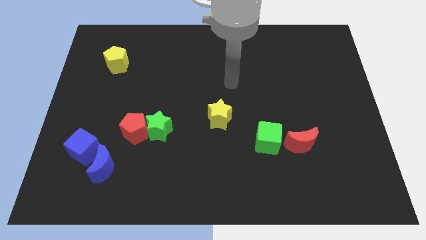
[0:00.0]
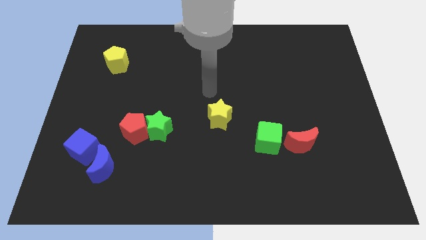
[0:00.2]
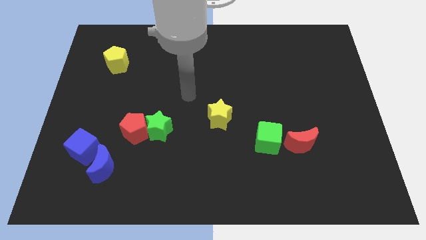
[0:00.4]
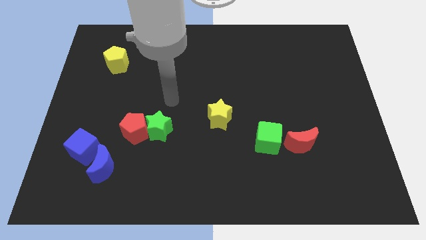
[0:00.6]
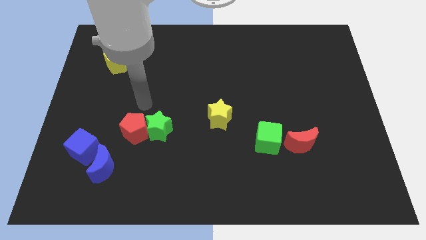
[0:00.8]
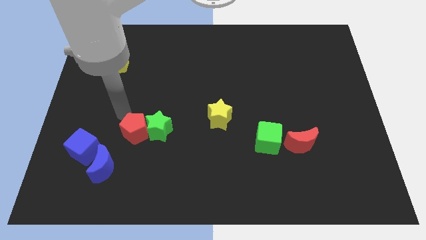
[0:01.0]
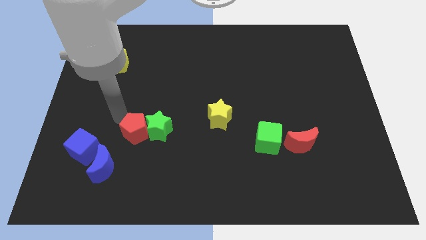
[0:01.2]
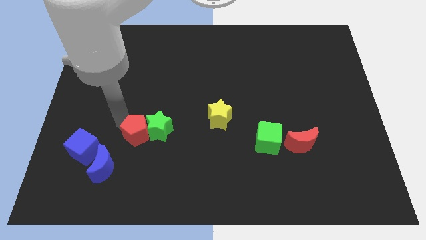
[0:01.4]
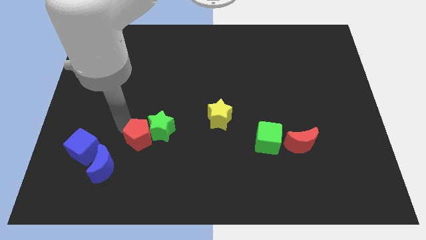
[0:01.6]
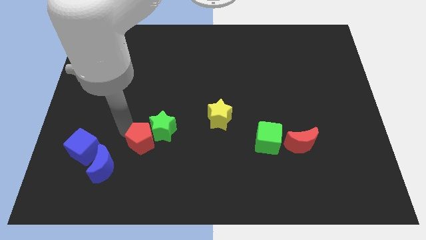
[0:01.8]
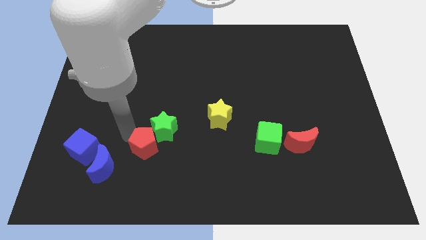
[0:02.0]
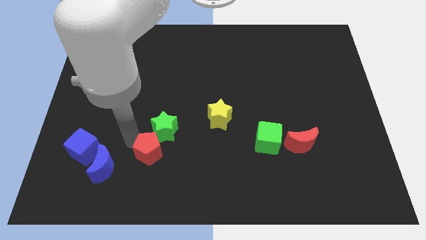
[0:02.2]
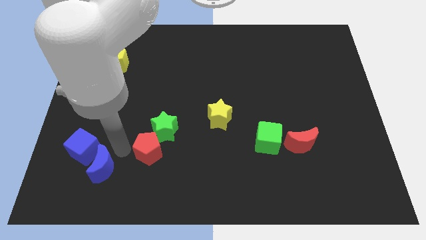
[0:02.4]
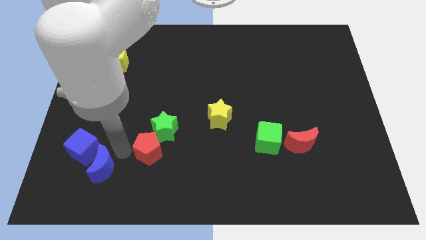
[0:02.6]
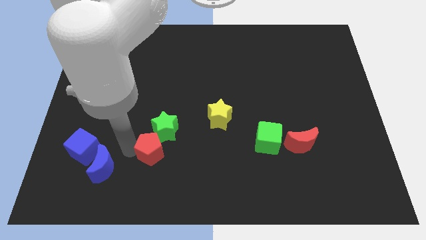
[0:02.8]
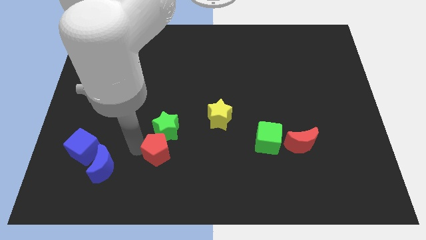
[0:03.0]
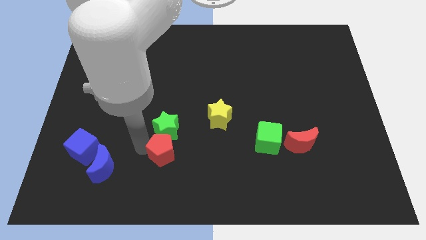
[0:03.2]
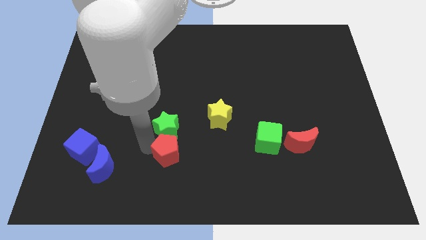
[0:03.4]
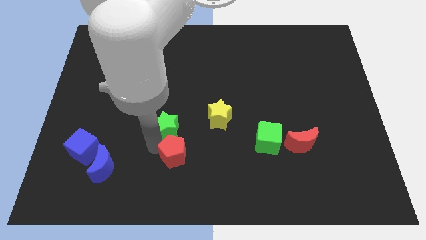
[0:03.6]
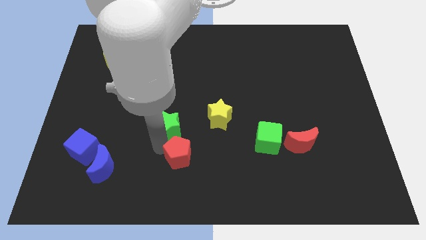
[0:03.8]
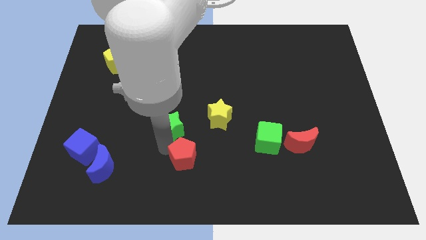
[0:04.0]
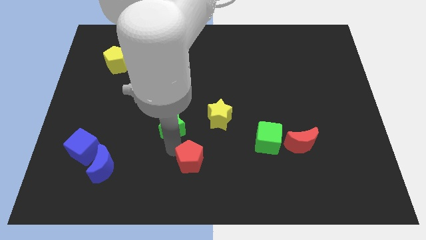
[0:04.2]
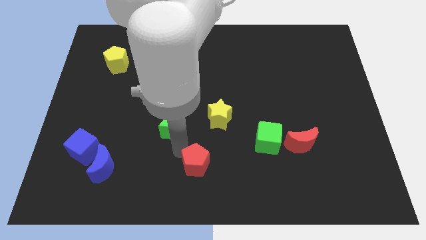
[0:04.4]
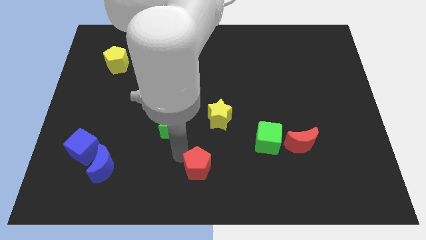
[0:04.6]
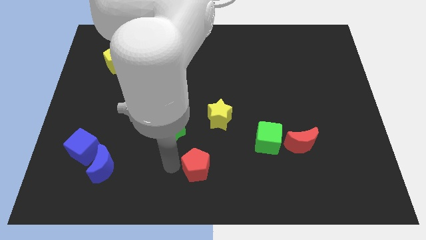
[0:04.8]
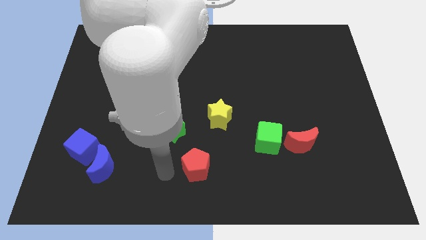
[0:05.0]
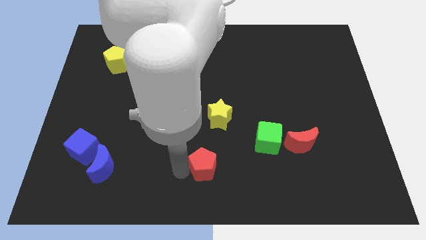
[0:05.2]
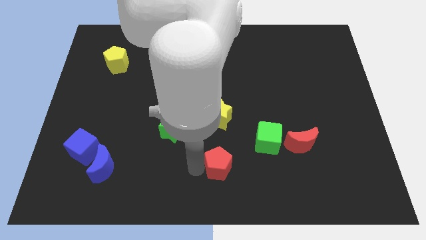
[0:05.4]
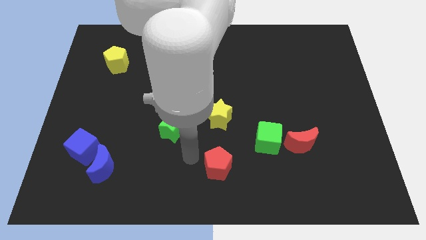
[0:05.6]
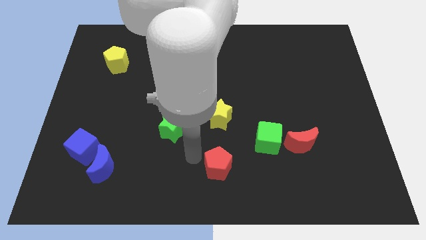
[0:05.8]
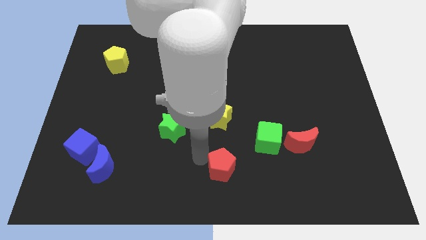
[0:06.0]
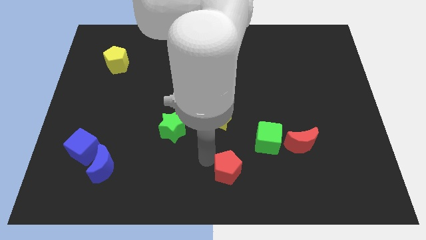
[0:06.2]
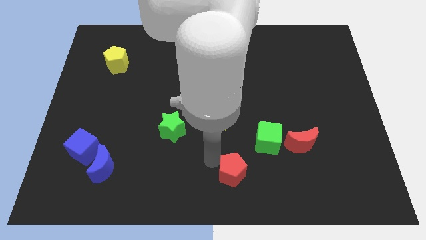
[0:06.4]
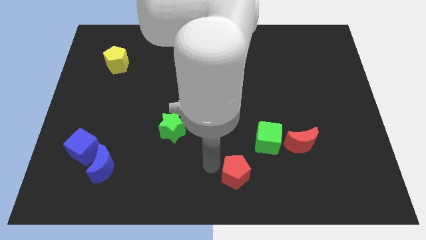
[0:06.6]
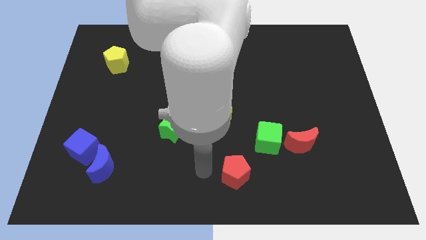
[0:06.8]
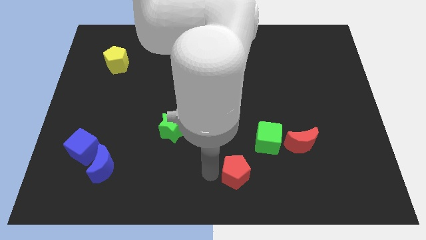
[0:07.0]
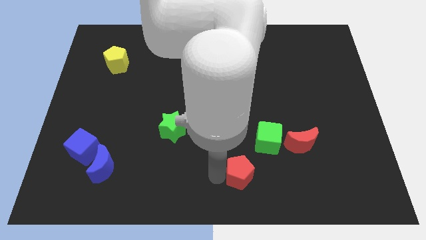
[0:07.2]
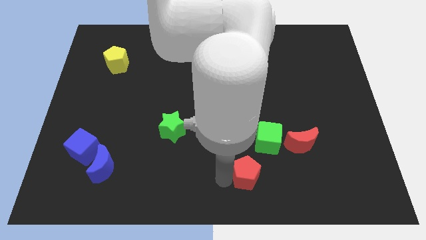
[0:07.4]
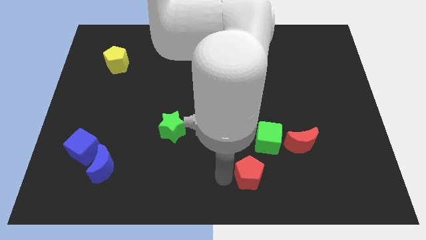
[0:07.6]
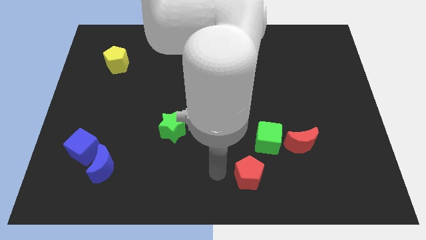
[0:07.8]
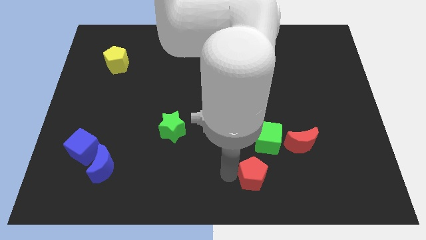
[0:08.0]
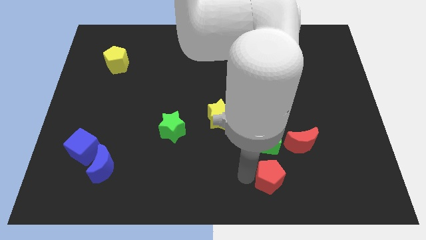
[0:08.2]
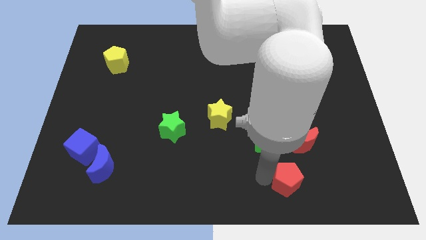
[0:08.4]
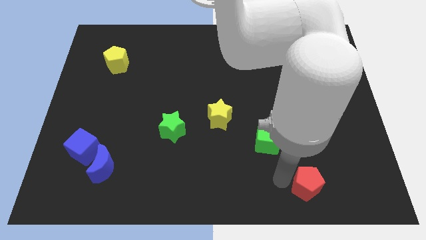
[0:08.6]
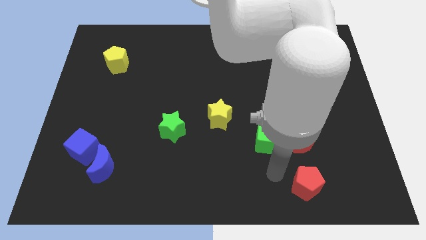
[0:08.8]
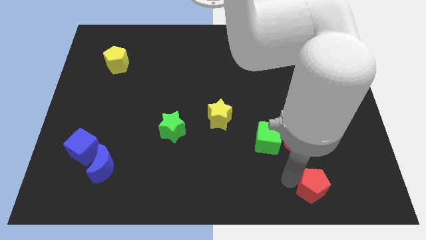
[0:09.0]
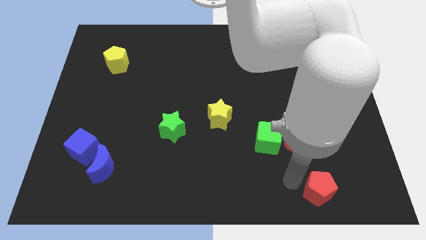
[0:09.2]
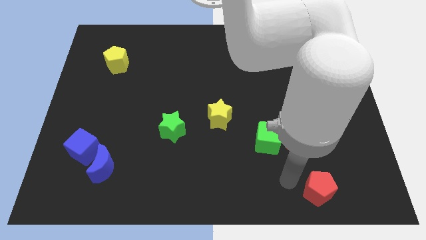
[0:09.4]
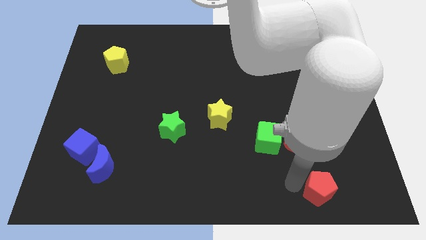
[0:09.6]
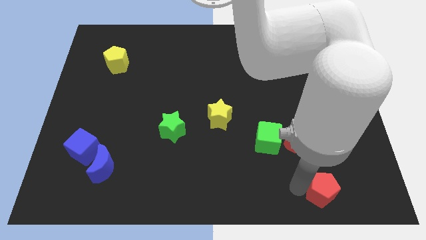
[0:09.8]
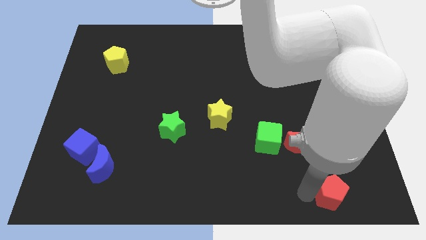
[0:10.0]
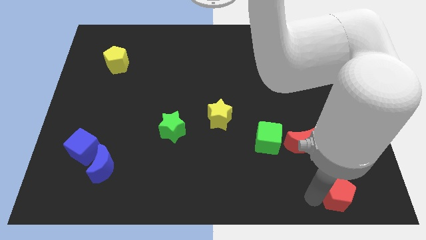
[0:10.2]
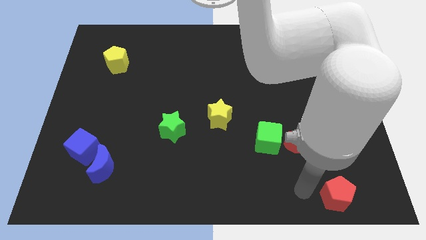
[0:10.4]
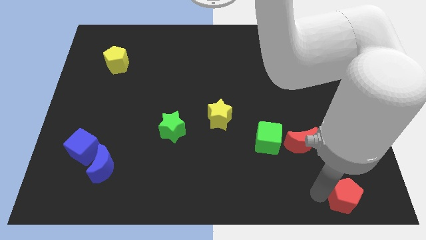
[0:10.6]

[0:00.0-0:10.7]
push the red pentagon to the bottom right corner

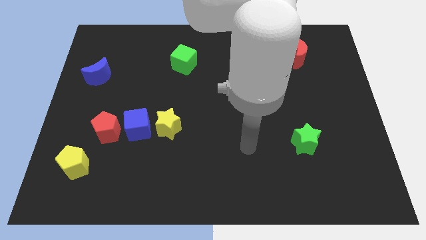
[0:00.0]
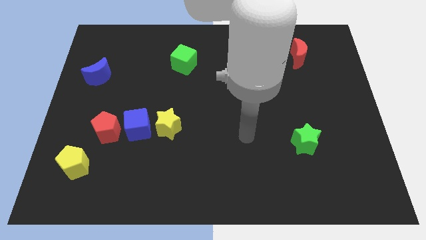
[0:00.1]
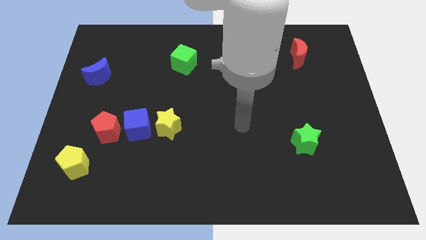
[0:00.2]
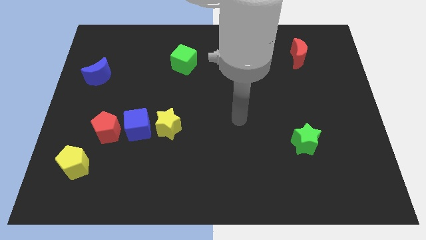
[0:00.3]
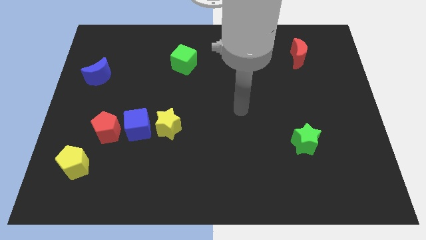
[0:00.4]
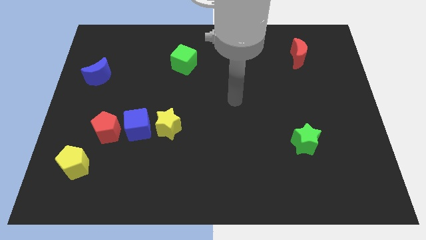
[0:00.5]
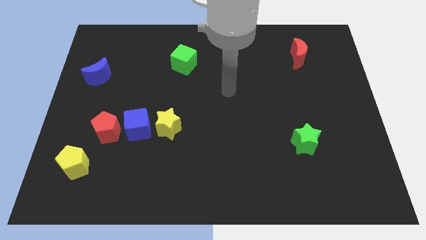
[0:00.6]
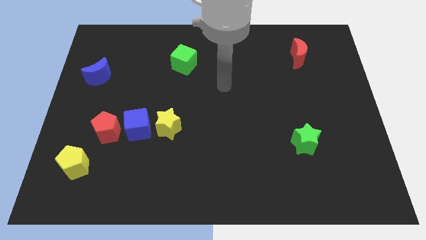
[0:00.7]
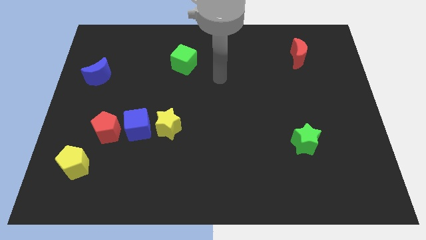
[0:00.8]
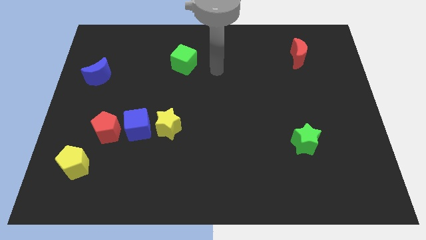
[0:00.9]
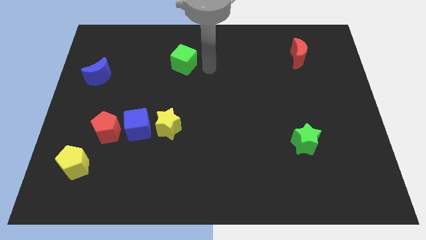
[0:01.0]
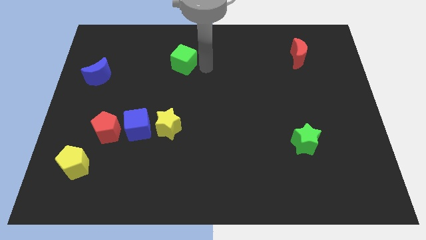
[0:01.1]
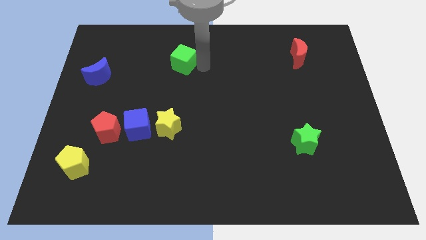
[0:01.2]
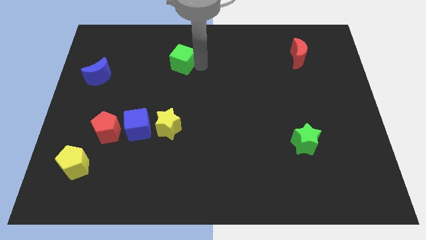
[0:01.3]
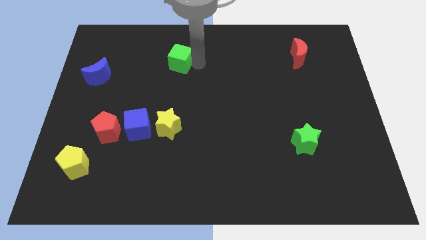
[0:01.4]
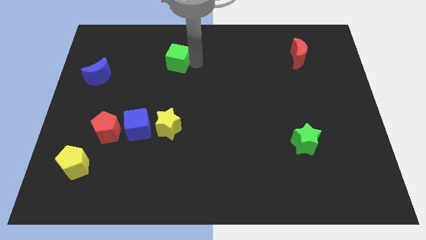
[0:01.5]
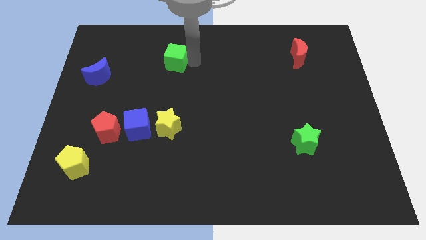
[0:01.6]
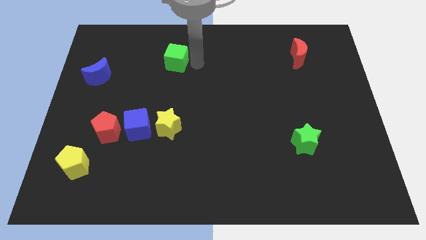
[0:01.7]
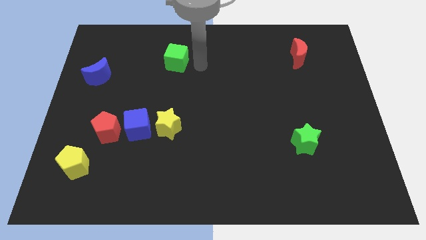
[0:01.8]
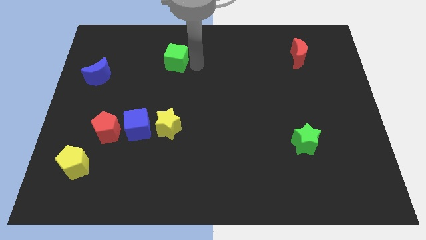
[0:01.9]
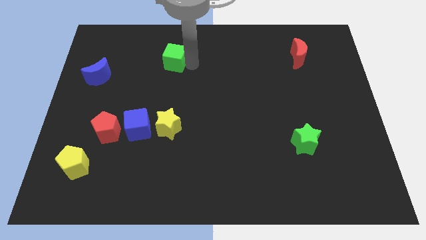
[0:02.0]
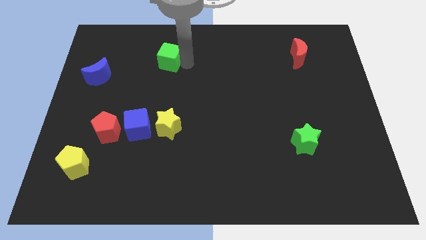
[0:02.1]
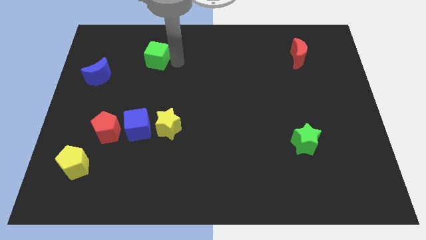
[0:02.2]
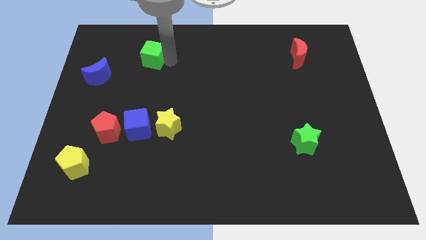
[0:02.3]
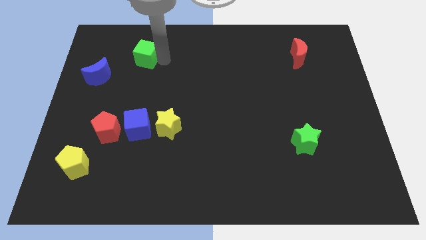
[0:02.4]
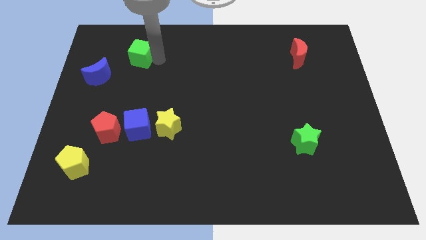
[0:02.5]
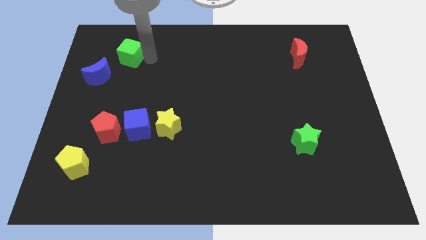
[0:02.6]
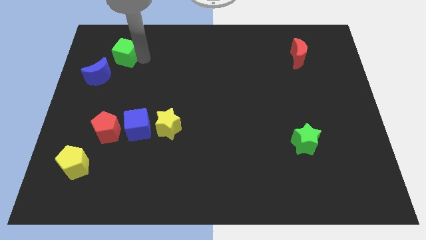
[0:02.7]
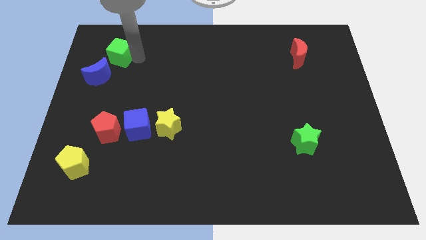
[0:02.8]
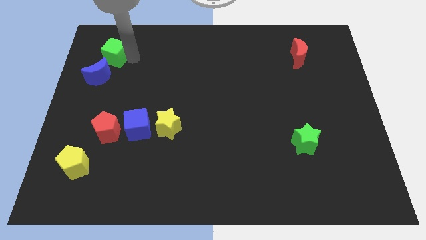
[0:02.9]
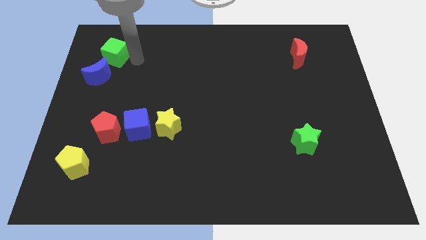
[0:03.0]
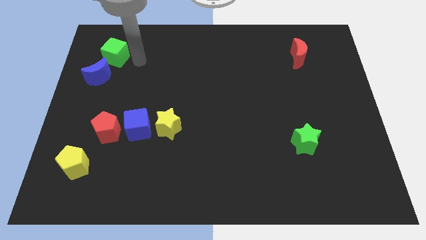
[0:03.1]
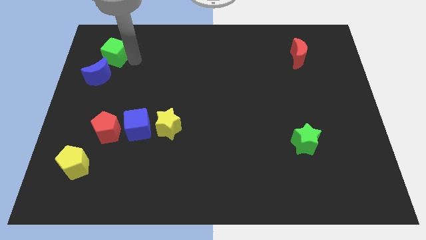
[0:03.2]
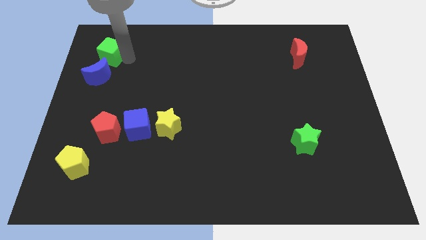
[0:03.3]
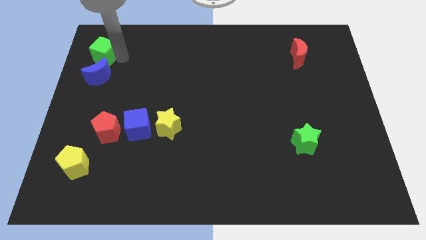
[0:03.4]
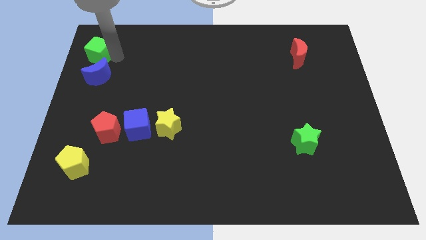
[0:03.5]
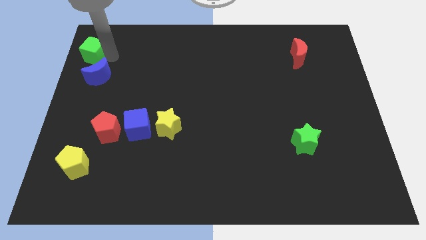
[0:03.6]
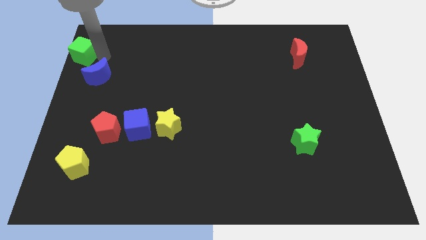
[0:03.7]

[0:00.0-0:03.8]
push the green cube to the top left of the board
